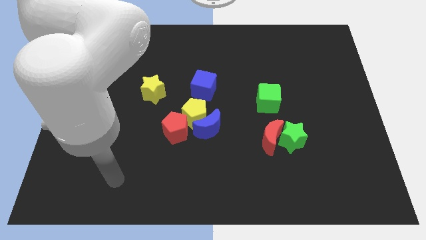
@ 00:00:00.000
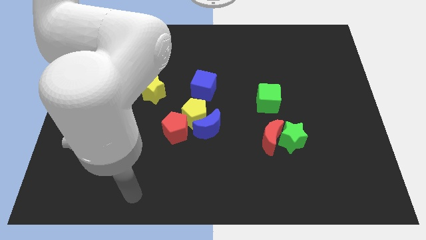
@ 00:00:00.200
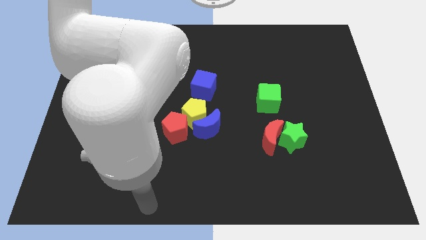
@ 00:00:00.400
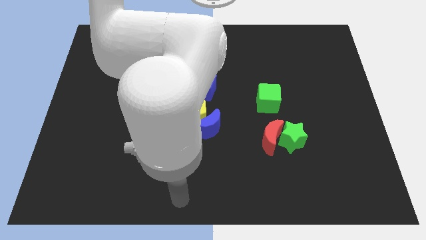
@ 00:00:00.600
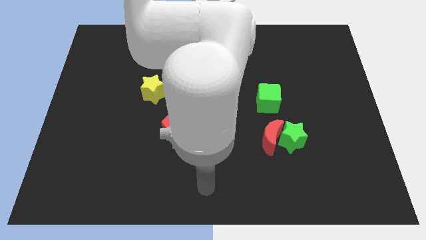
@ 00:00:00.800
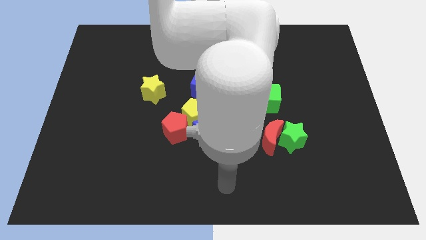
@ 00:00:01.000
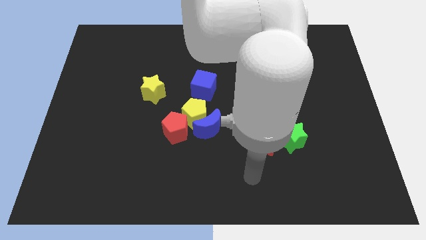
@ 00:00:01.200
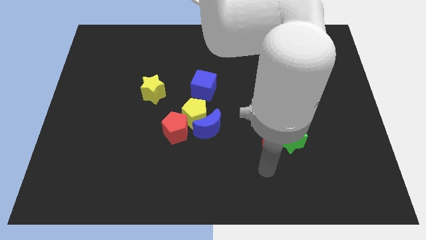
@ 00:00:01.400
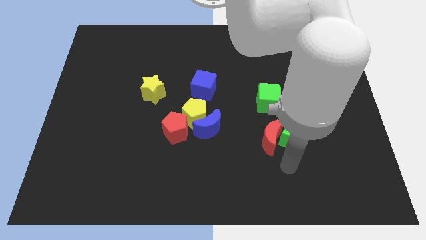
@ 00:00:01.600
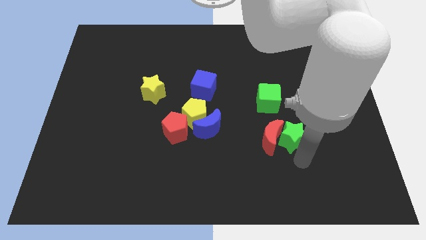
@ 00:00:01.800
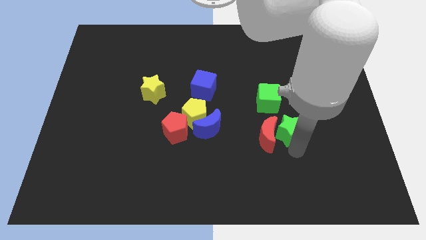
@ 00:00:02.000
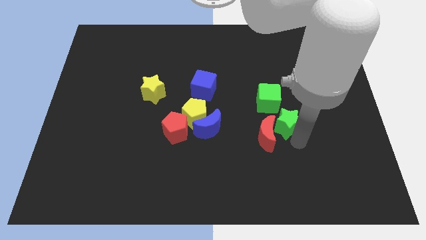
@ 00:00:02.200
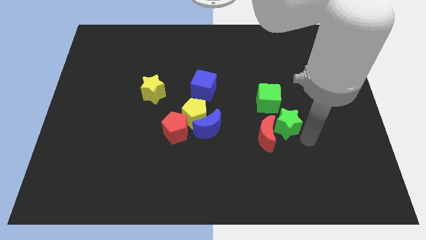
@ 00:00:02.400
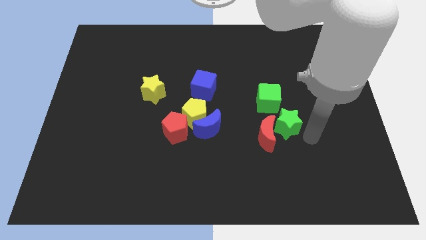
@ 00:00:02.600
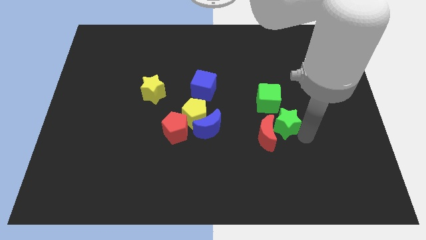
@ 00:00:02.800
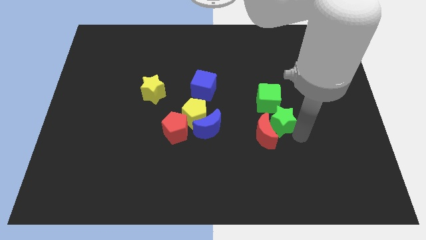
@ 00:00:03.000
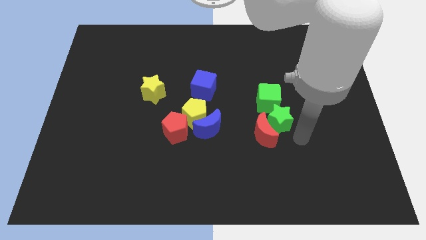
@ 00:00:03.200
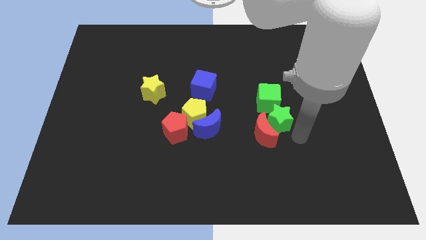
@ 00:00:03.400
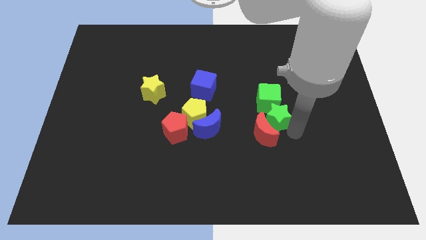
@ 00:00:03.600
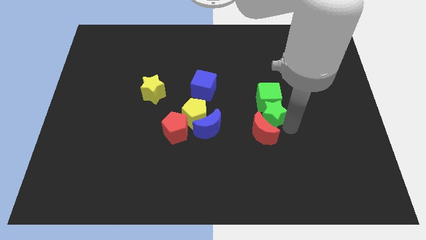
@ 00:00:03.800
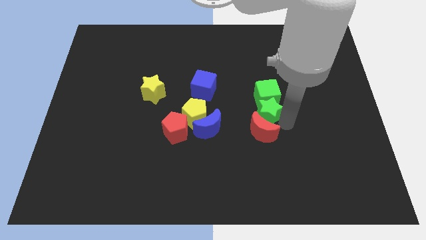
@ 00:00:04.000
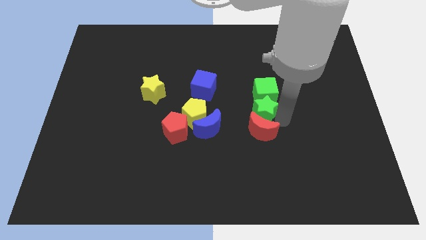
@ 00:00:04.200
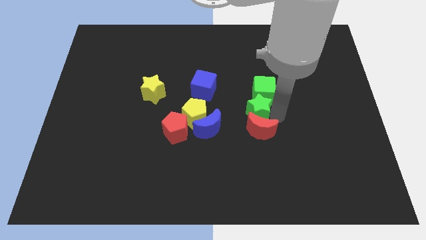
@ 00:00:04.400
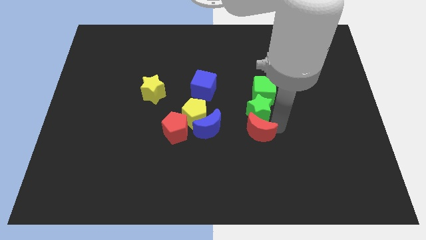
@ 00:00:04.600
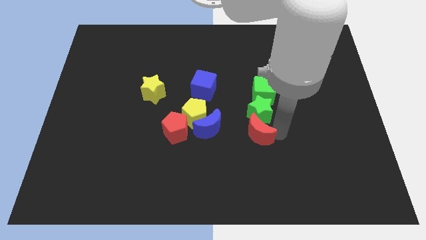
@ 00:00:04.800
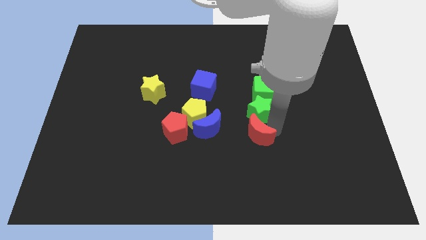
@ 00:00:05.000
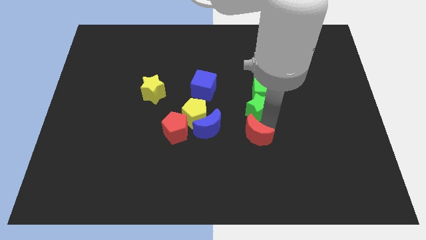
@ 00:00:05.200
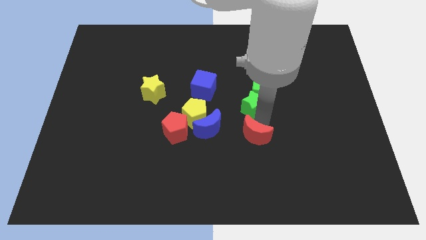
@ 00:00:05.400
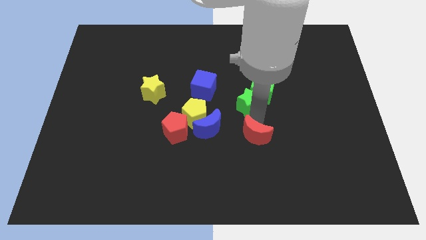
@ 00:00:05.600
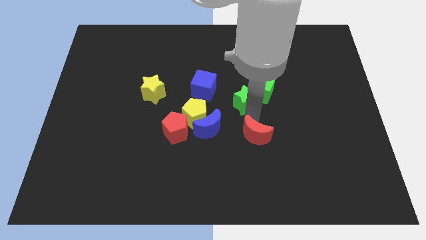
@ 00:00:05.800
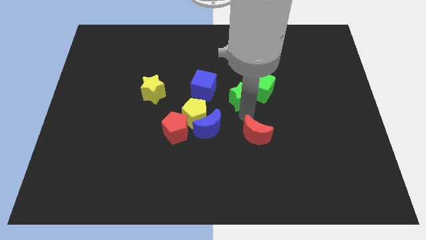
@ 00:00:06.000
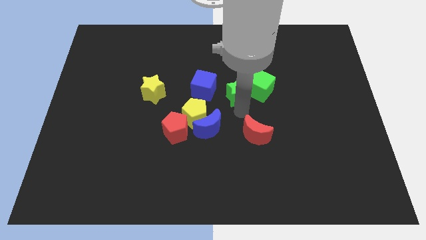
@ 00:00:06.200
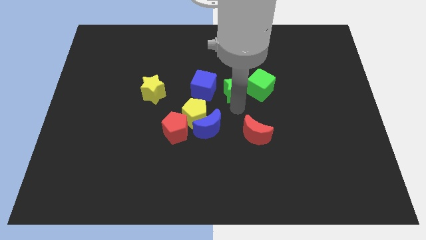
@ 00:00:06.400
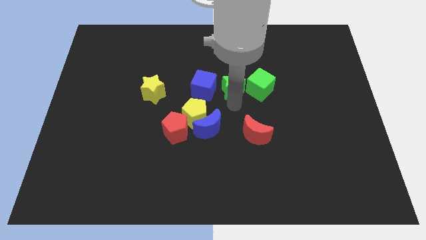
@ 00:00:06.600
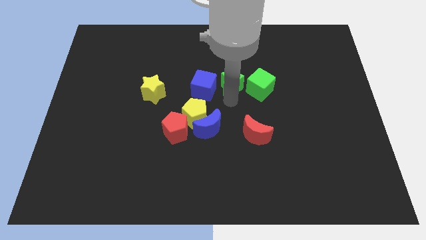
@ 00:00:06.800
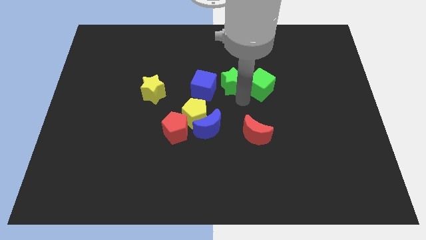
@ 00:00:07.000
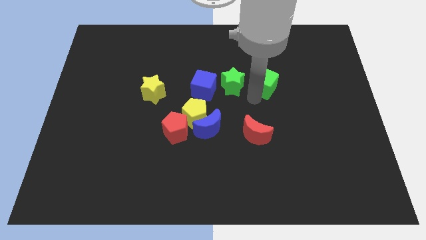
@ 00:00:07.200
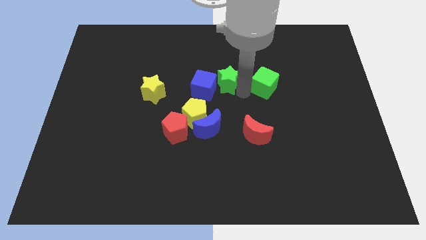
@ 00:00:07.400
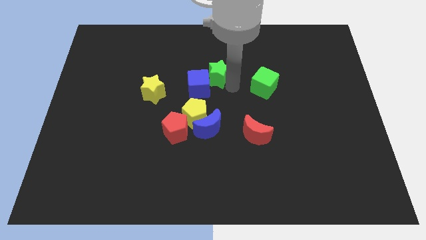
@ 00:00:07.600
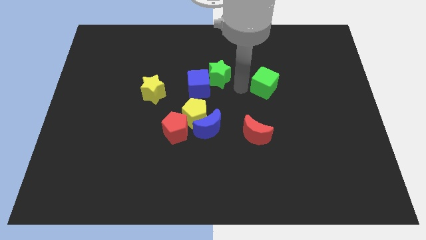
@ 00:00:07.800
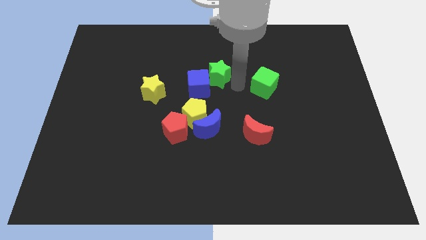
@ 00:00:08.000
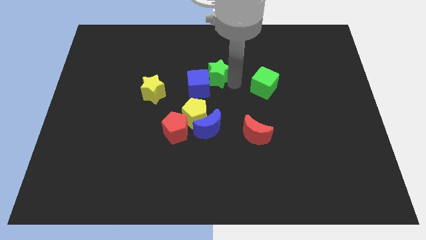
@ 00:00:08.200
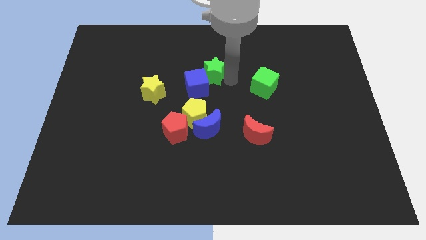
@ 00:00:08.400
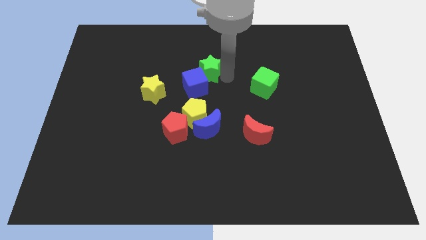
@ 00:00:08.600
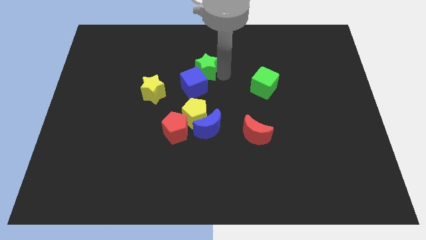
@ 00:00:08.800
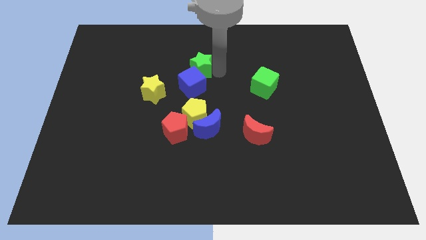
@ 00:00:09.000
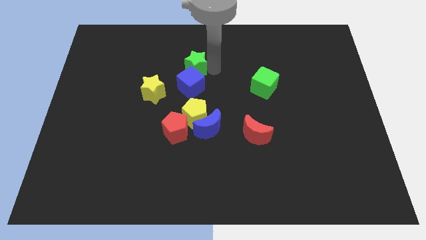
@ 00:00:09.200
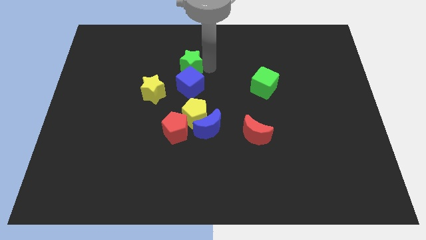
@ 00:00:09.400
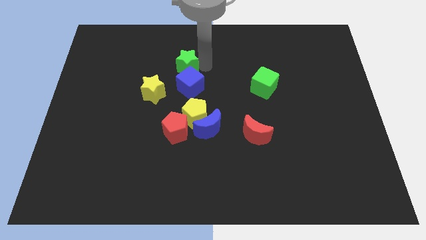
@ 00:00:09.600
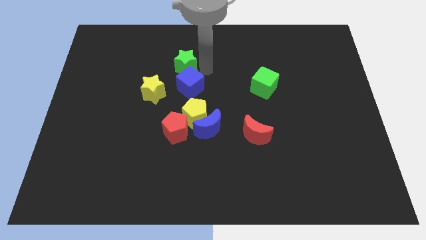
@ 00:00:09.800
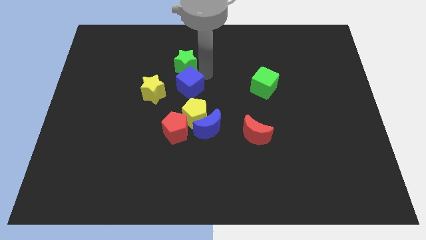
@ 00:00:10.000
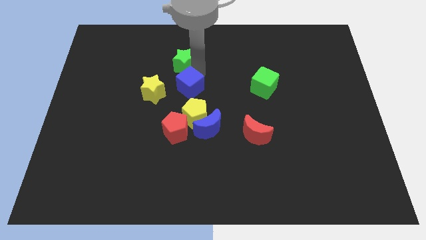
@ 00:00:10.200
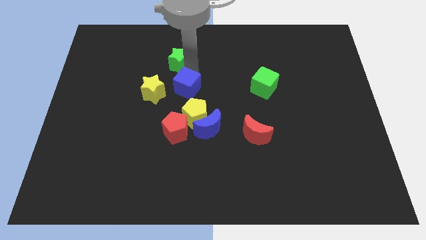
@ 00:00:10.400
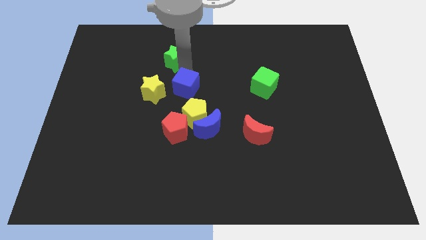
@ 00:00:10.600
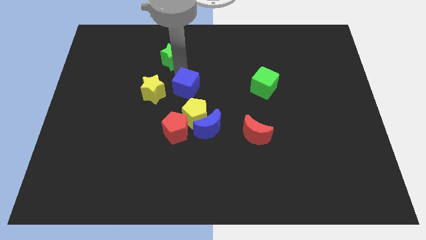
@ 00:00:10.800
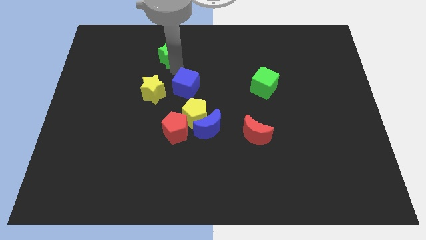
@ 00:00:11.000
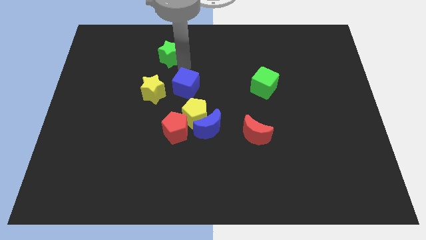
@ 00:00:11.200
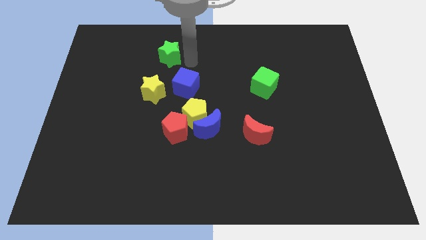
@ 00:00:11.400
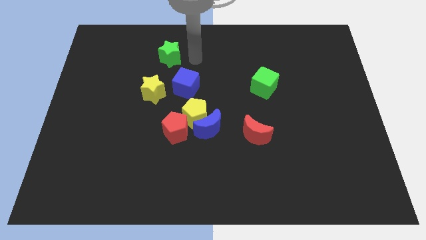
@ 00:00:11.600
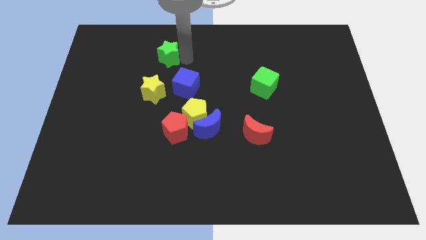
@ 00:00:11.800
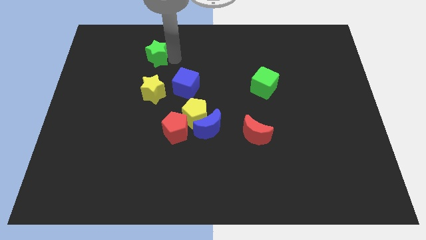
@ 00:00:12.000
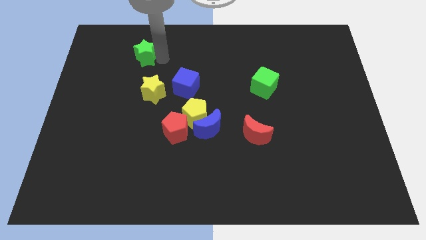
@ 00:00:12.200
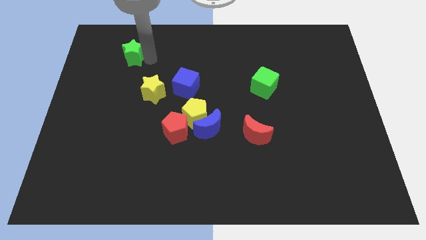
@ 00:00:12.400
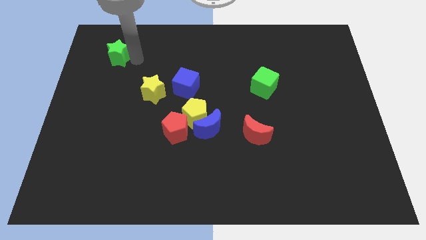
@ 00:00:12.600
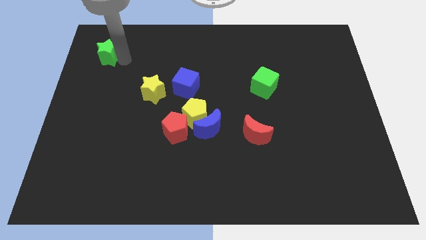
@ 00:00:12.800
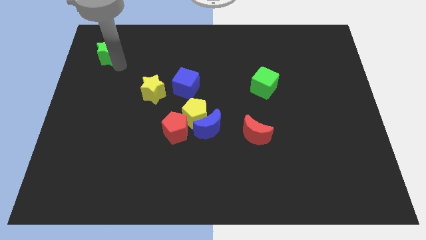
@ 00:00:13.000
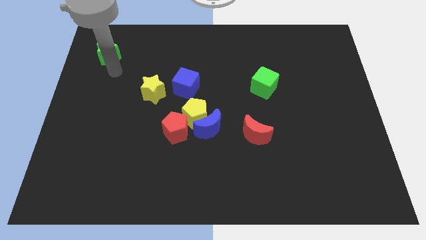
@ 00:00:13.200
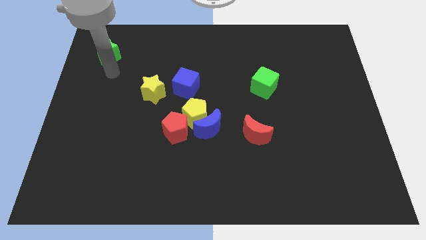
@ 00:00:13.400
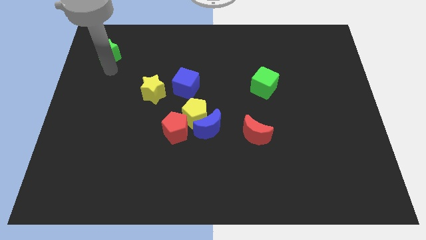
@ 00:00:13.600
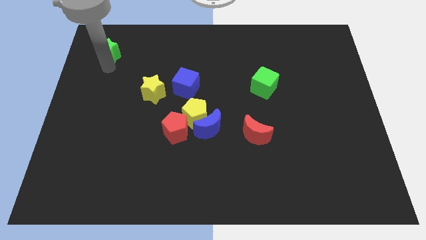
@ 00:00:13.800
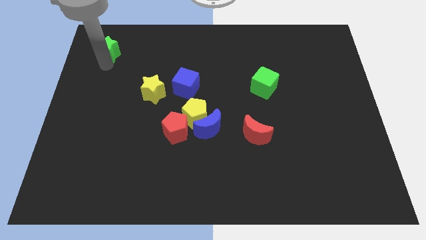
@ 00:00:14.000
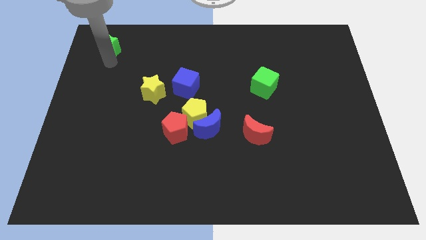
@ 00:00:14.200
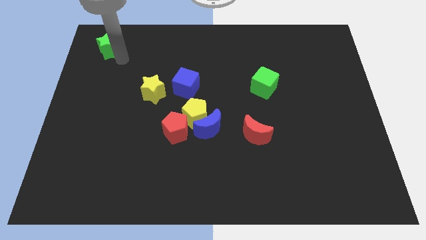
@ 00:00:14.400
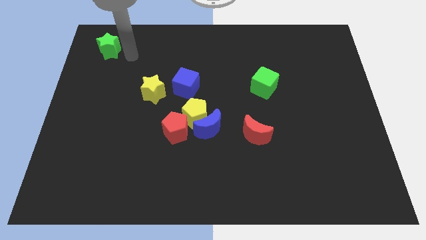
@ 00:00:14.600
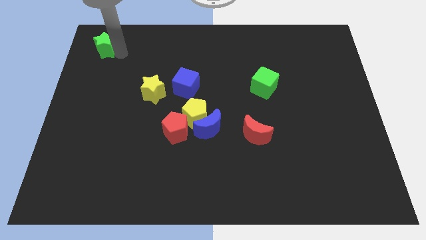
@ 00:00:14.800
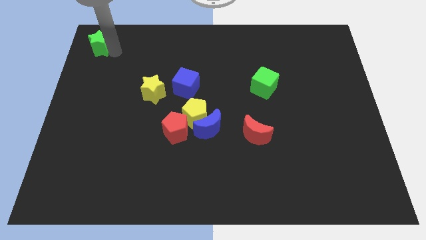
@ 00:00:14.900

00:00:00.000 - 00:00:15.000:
put the green star to the upper left corner
